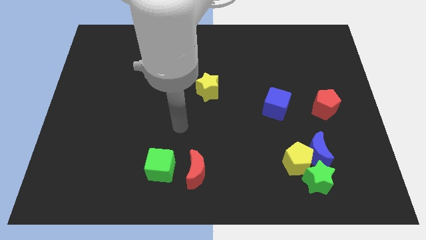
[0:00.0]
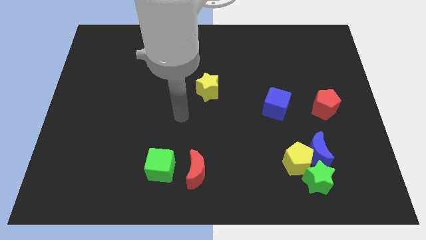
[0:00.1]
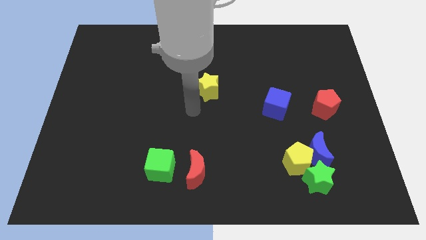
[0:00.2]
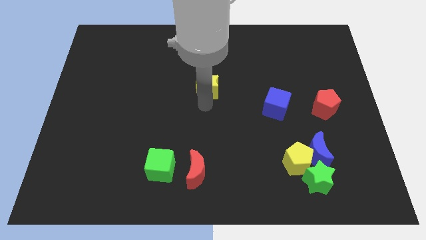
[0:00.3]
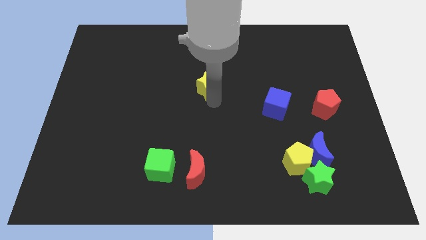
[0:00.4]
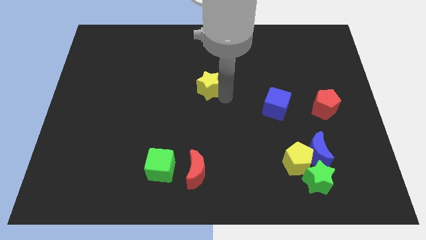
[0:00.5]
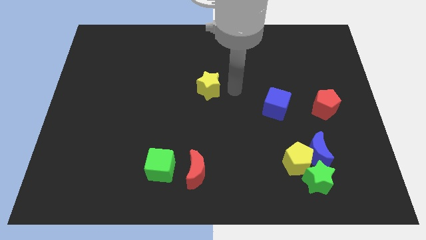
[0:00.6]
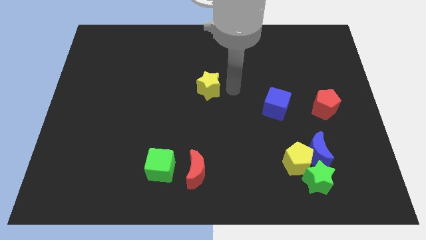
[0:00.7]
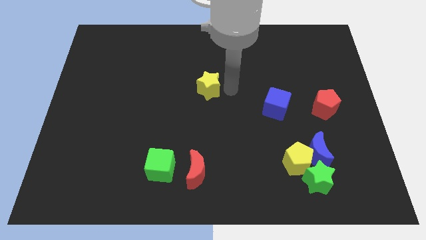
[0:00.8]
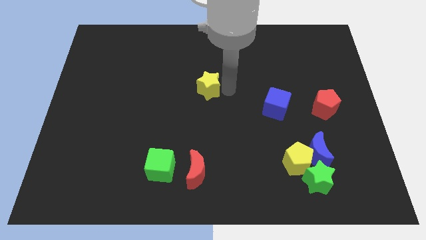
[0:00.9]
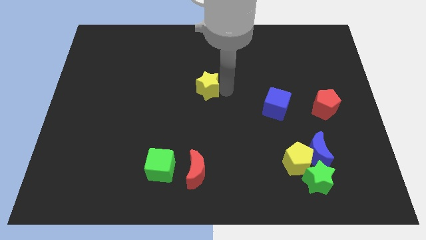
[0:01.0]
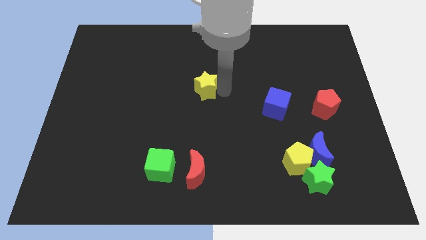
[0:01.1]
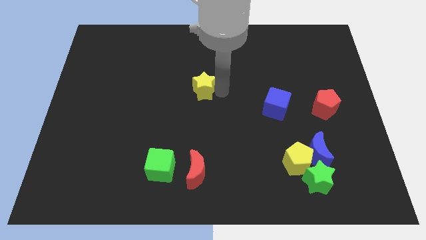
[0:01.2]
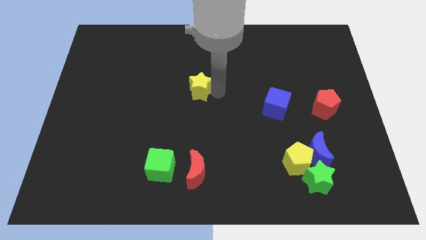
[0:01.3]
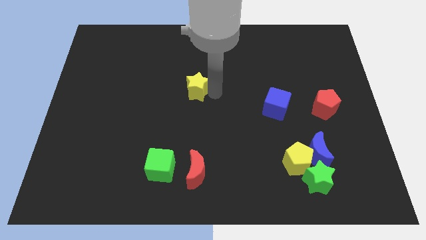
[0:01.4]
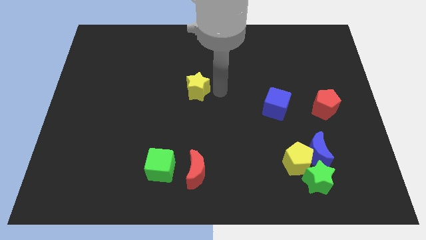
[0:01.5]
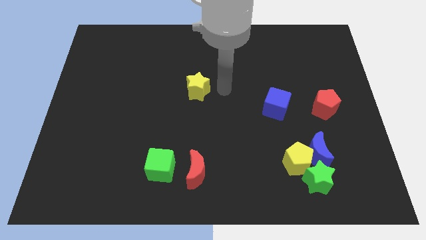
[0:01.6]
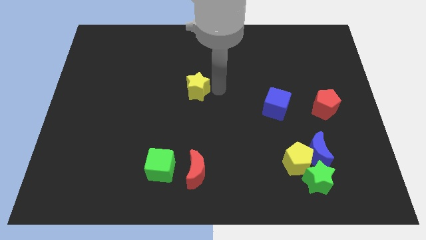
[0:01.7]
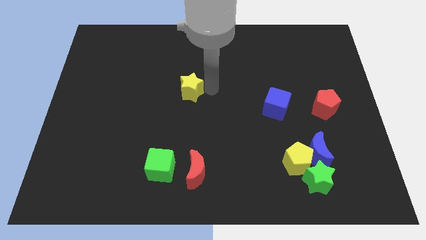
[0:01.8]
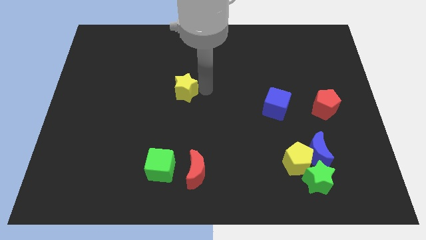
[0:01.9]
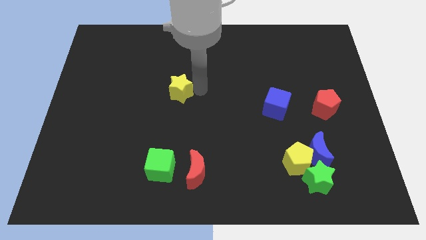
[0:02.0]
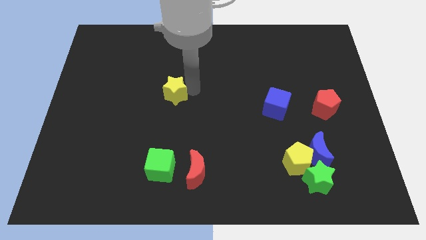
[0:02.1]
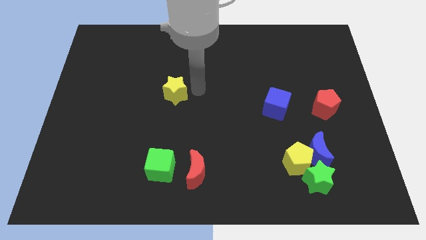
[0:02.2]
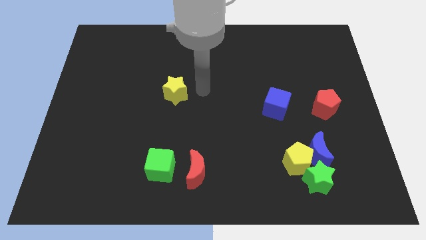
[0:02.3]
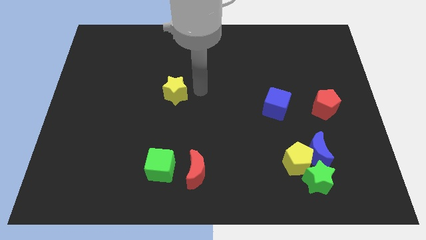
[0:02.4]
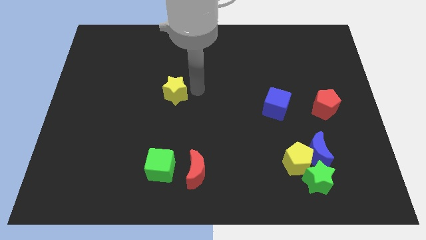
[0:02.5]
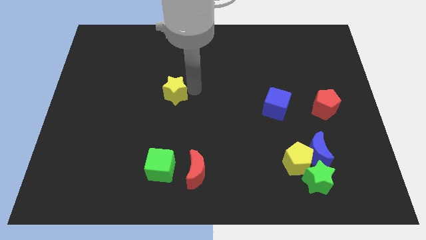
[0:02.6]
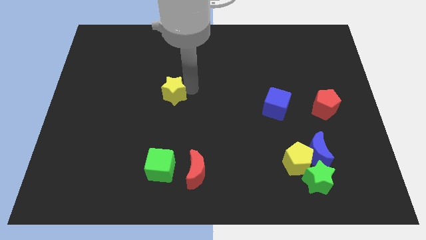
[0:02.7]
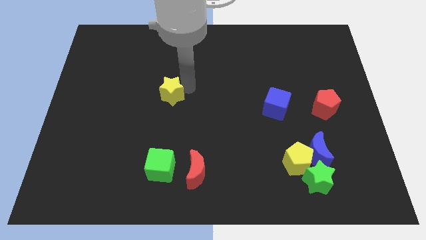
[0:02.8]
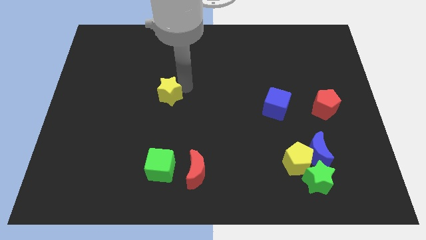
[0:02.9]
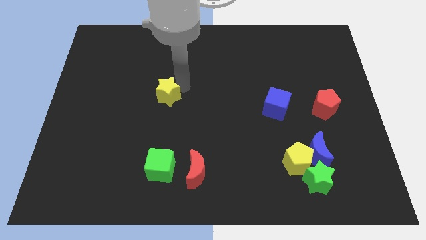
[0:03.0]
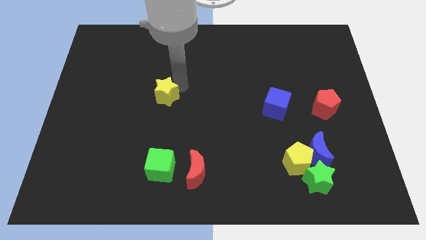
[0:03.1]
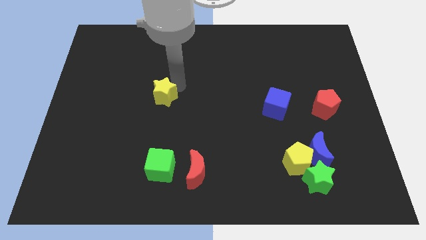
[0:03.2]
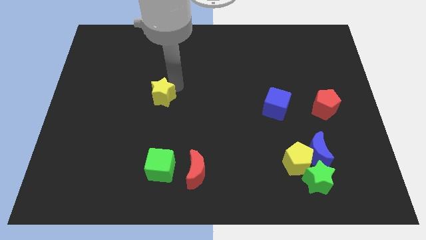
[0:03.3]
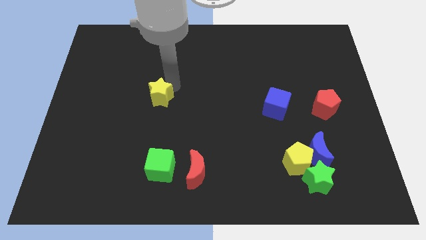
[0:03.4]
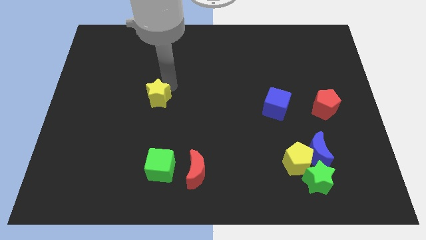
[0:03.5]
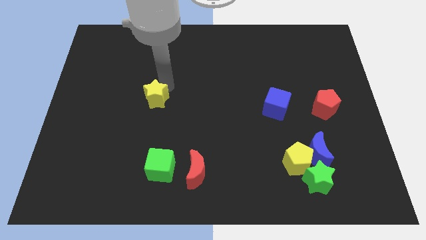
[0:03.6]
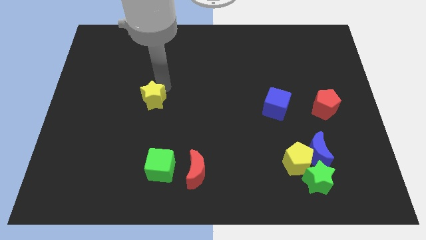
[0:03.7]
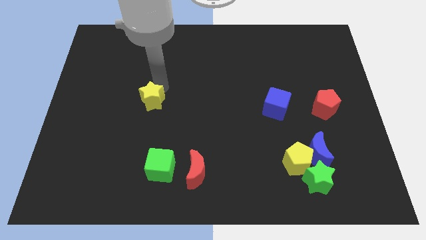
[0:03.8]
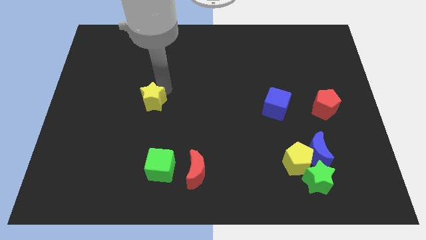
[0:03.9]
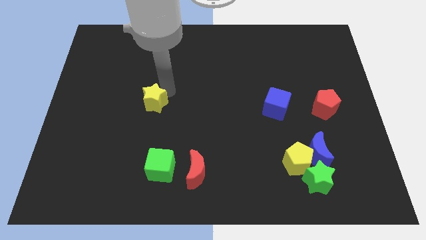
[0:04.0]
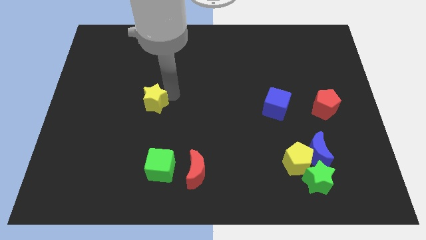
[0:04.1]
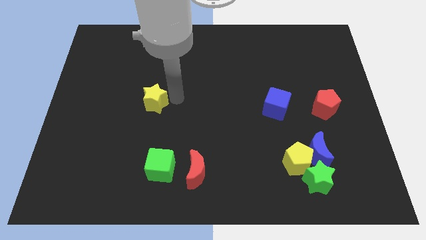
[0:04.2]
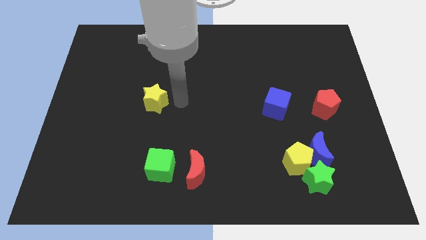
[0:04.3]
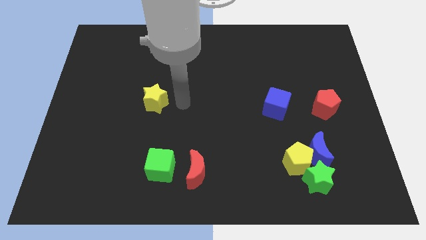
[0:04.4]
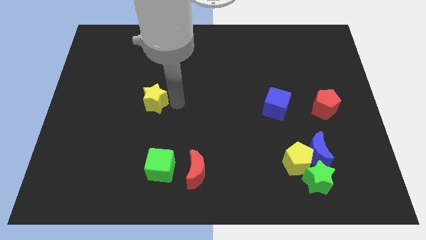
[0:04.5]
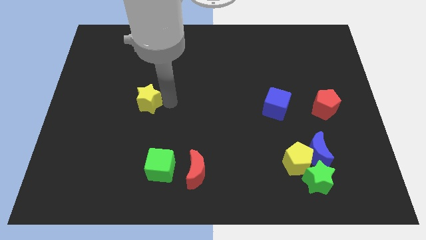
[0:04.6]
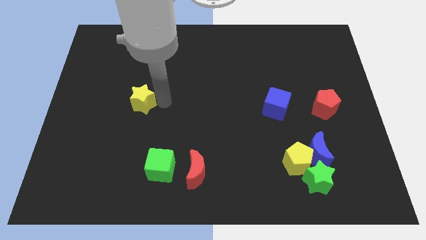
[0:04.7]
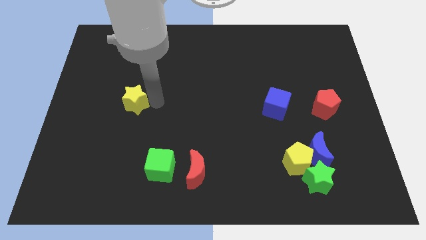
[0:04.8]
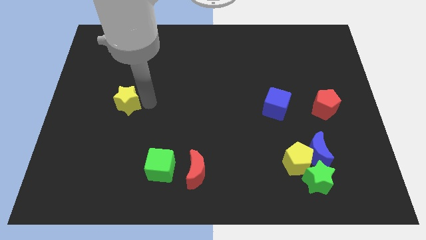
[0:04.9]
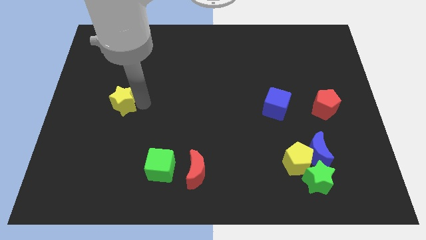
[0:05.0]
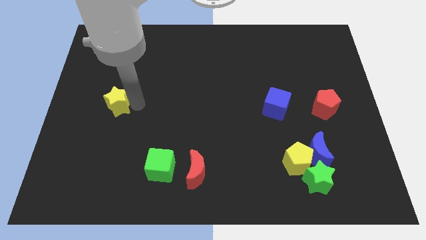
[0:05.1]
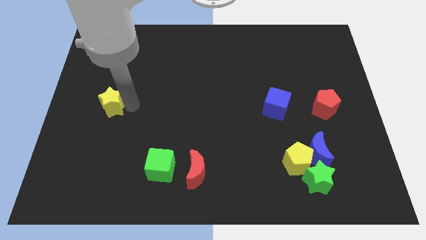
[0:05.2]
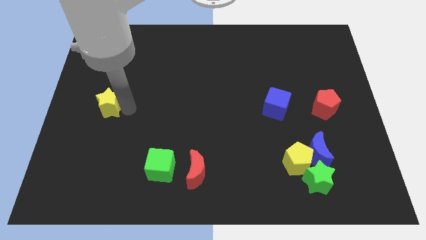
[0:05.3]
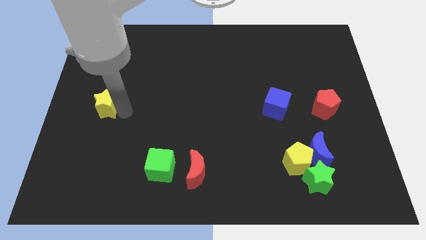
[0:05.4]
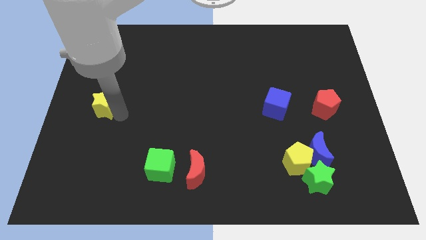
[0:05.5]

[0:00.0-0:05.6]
move the yellow star to the left side of the board

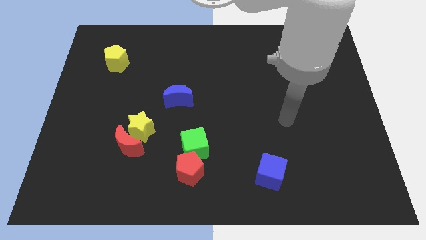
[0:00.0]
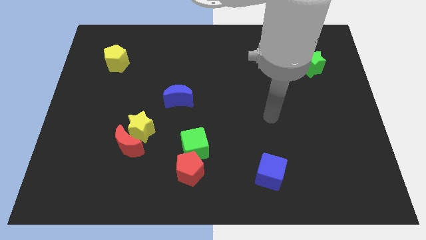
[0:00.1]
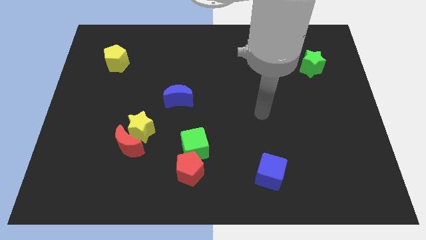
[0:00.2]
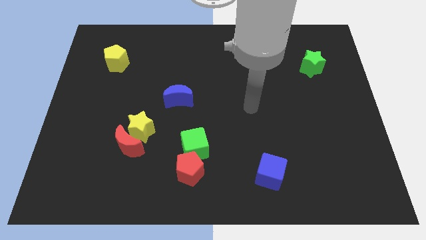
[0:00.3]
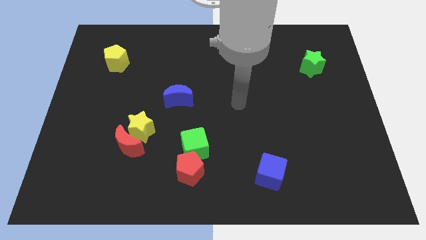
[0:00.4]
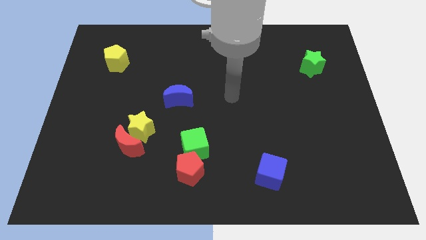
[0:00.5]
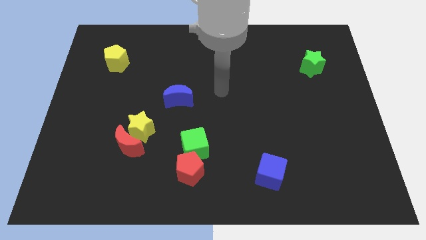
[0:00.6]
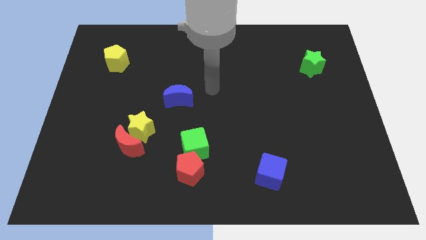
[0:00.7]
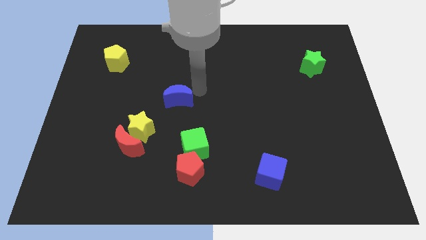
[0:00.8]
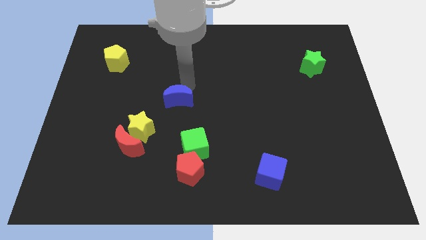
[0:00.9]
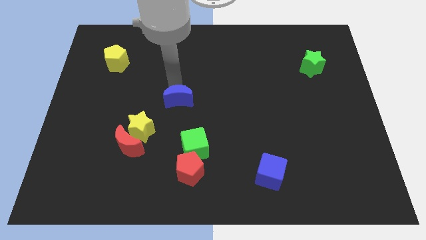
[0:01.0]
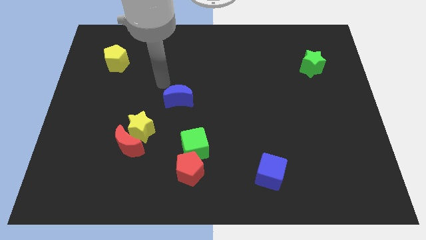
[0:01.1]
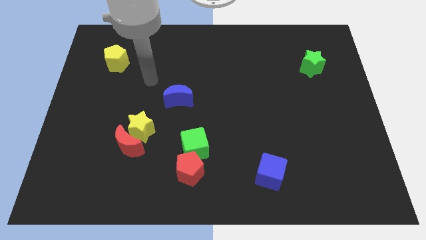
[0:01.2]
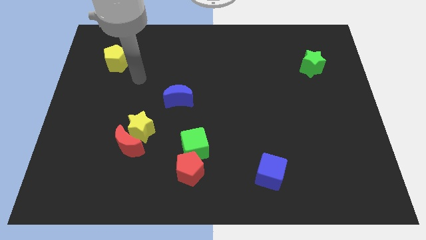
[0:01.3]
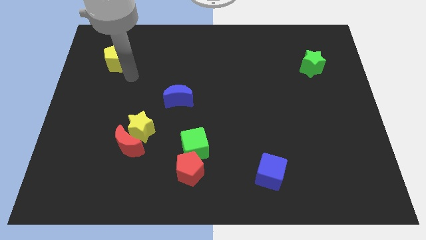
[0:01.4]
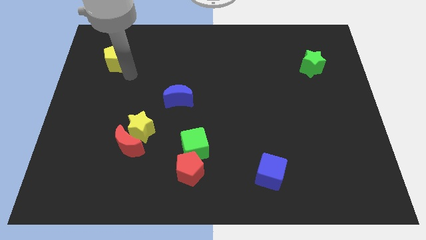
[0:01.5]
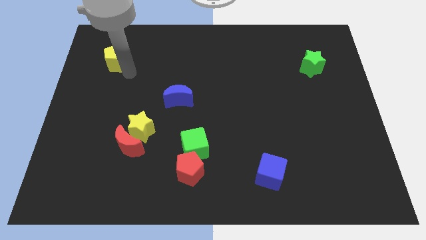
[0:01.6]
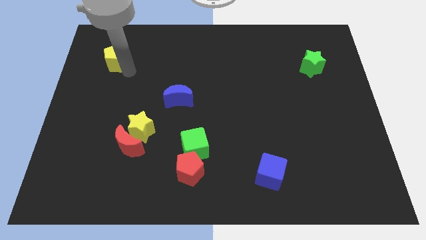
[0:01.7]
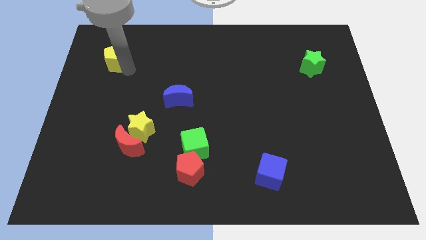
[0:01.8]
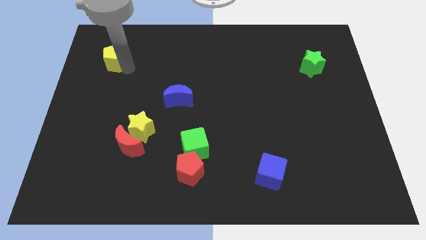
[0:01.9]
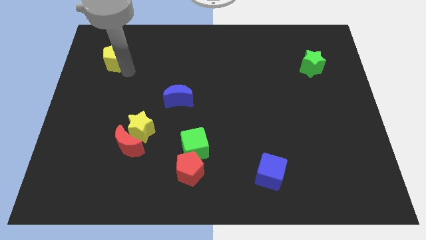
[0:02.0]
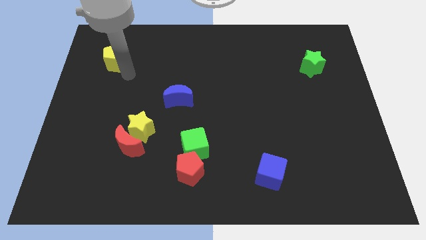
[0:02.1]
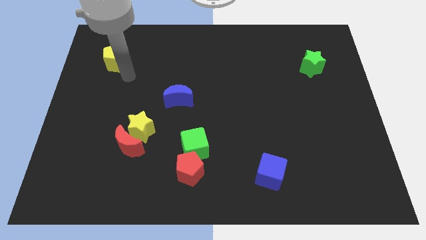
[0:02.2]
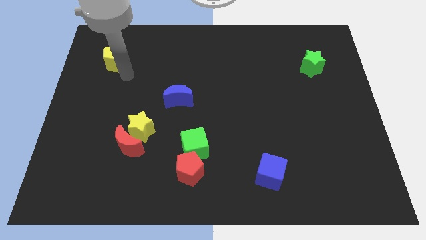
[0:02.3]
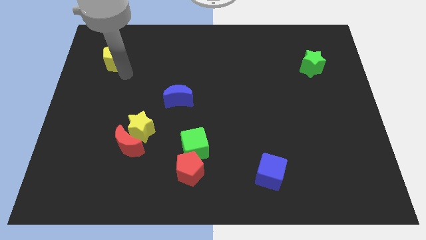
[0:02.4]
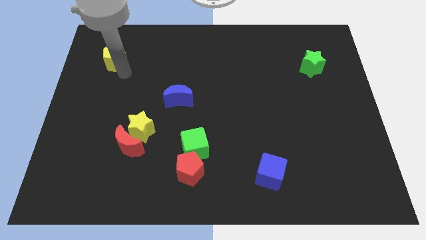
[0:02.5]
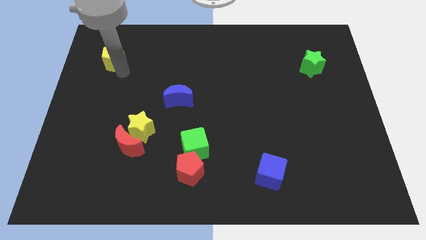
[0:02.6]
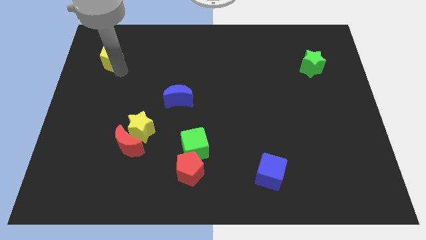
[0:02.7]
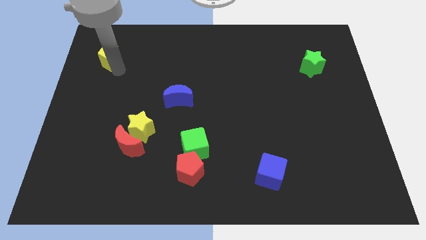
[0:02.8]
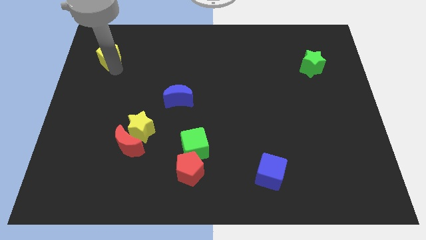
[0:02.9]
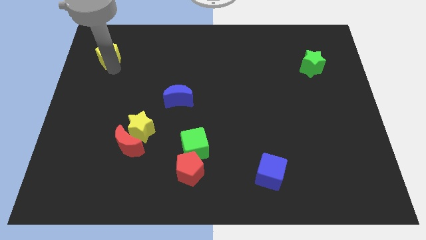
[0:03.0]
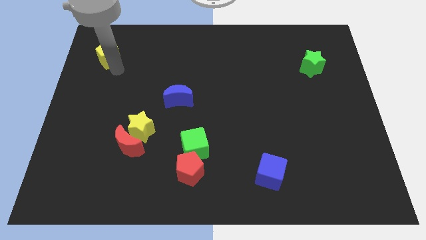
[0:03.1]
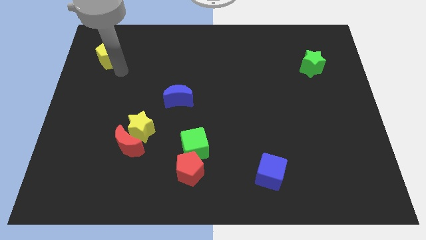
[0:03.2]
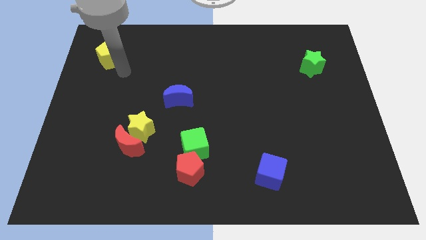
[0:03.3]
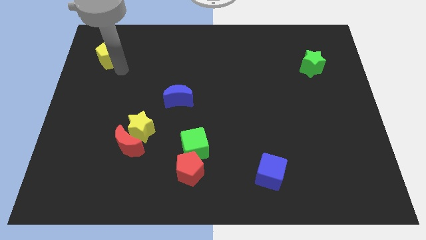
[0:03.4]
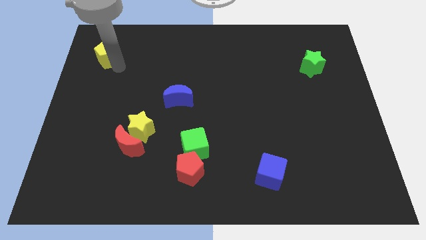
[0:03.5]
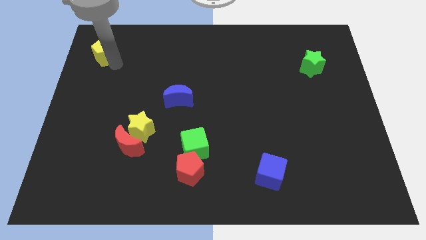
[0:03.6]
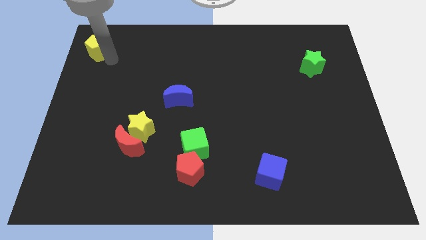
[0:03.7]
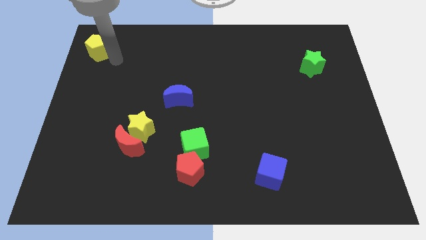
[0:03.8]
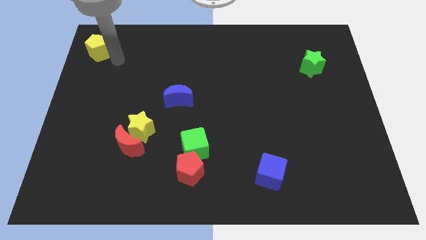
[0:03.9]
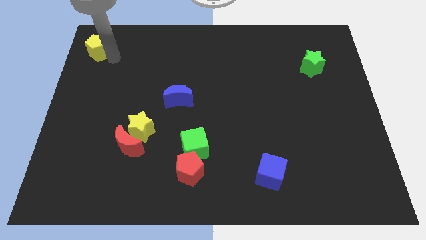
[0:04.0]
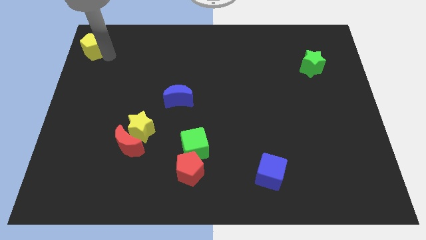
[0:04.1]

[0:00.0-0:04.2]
slide the yellow pentagon to the upper left corner
